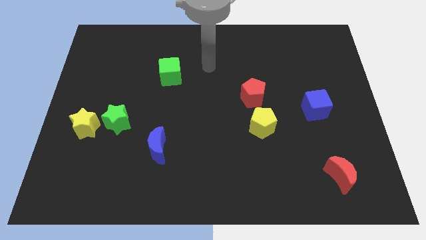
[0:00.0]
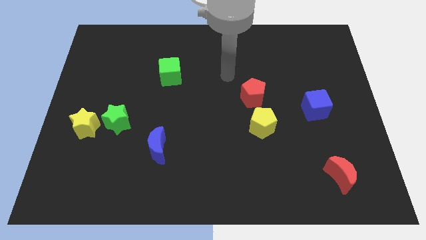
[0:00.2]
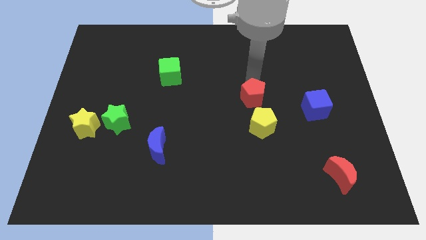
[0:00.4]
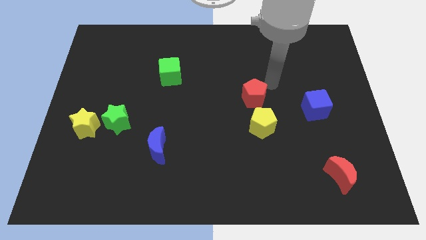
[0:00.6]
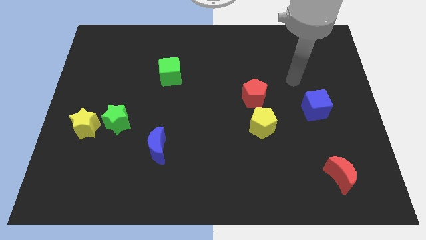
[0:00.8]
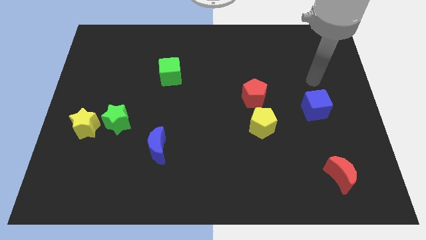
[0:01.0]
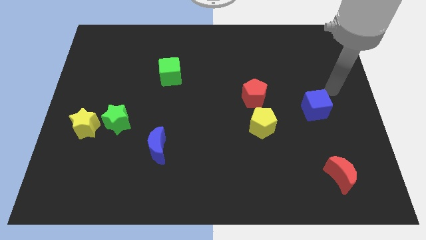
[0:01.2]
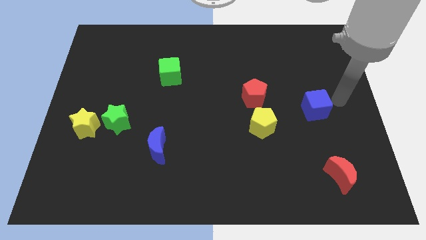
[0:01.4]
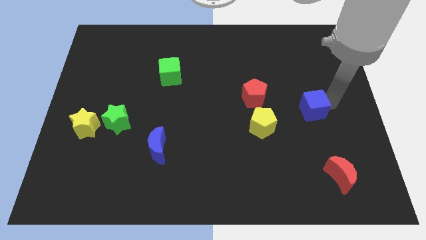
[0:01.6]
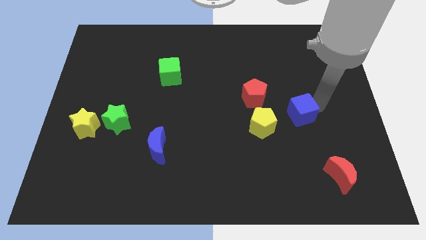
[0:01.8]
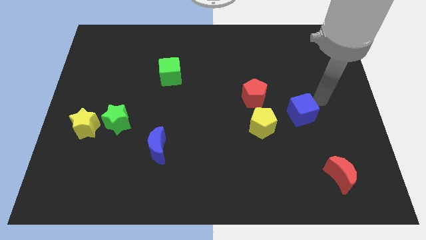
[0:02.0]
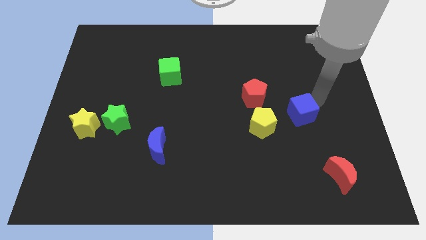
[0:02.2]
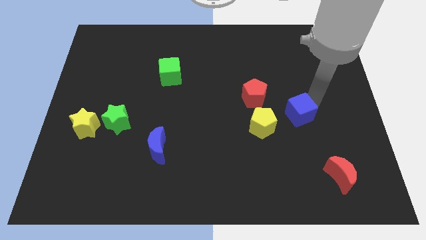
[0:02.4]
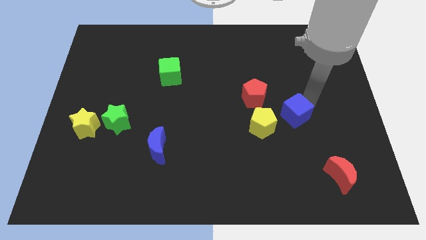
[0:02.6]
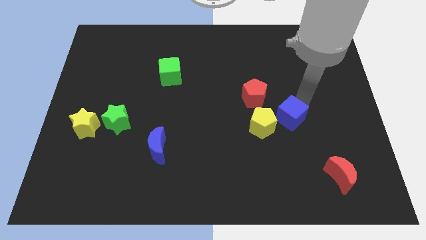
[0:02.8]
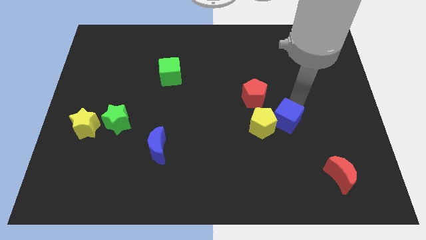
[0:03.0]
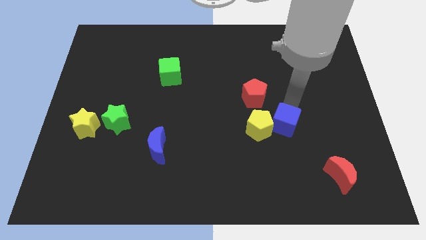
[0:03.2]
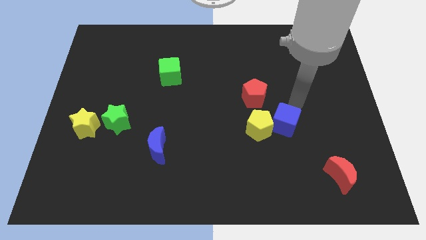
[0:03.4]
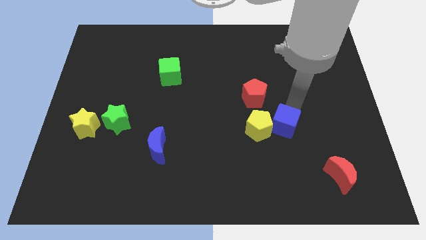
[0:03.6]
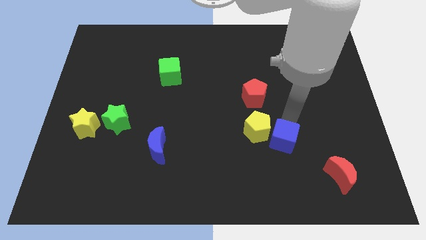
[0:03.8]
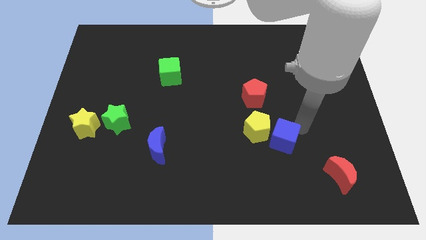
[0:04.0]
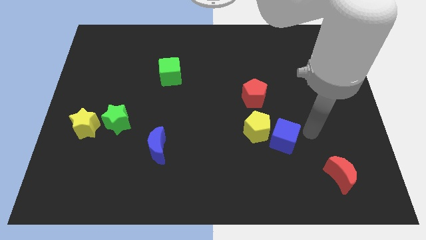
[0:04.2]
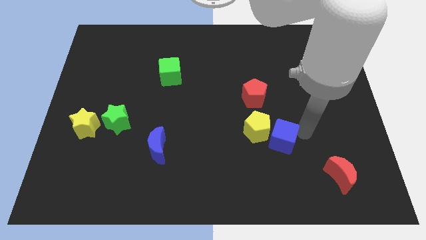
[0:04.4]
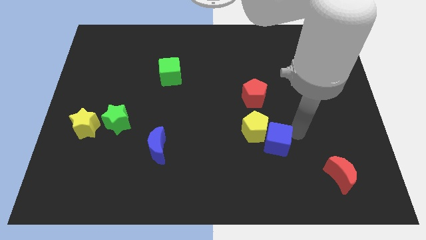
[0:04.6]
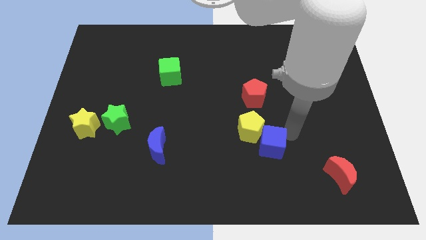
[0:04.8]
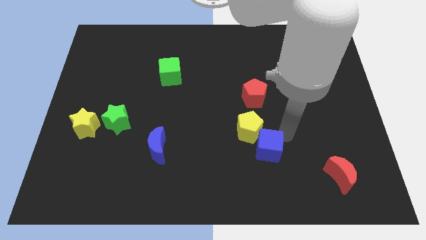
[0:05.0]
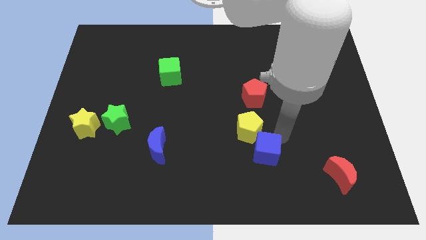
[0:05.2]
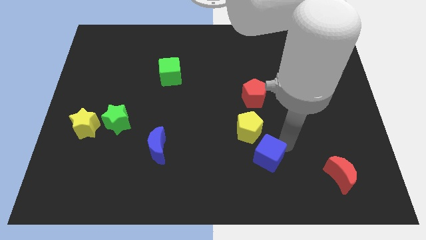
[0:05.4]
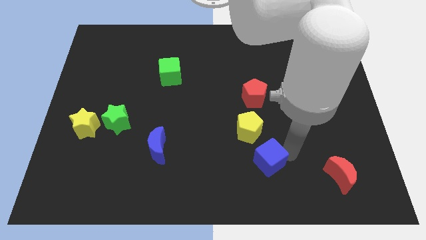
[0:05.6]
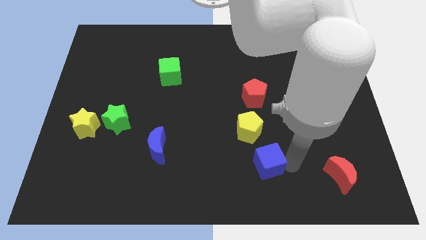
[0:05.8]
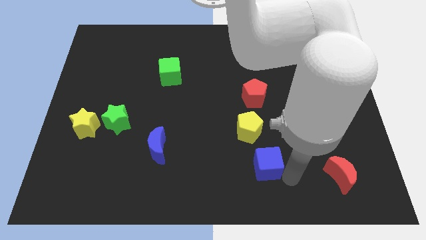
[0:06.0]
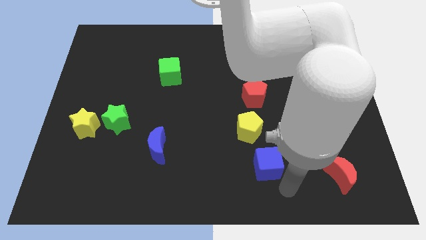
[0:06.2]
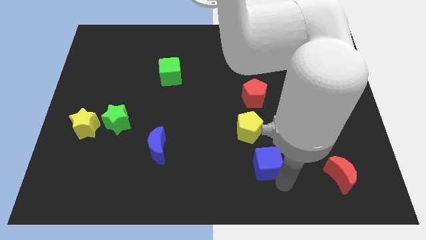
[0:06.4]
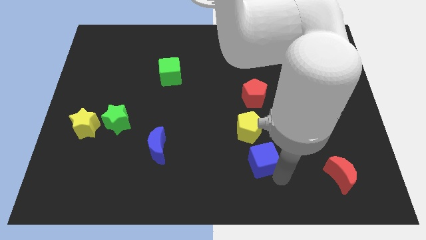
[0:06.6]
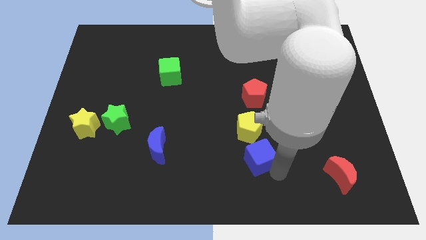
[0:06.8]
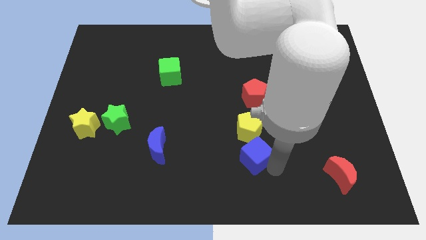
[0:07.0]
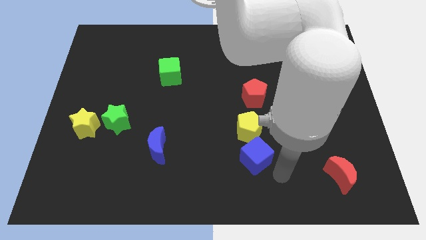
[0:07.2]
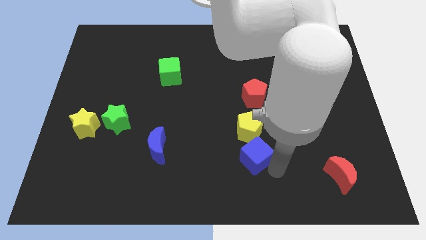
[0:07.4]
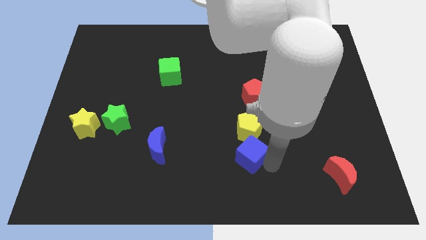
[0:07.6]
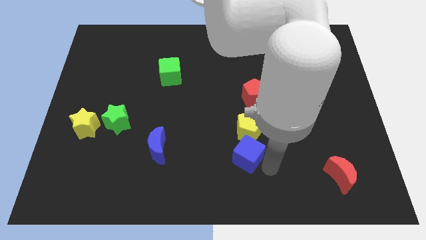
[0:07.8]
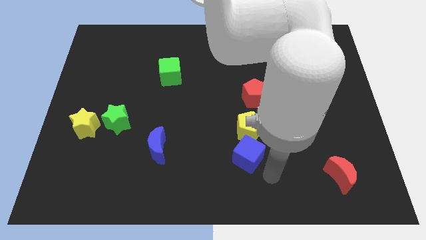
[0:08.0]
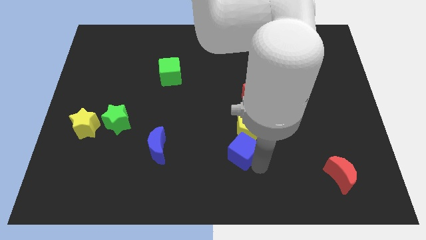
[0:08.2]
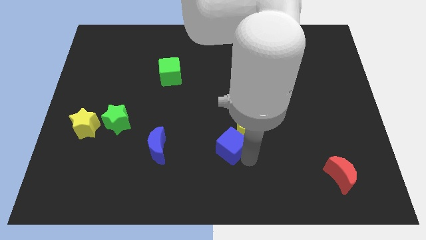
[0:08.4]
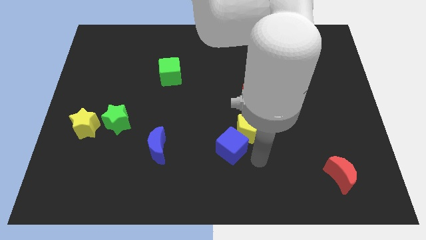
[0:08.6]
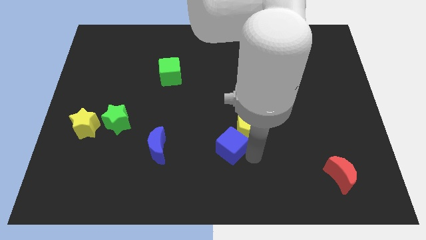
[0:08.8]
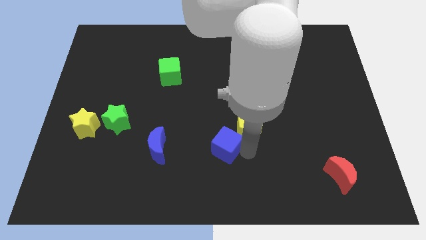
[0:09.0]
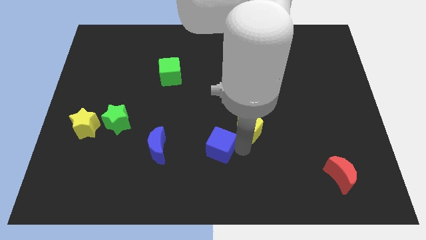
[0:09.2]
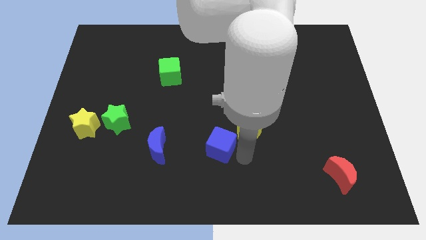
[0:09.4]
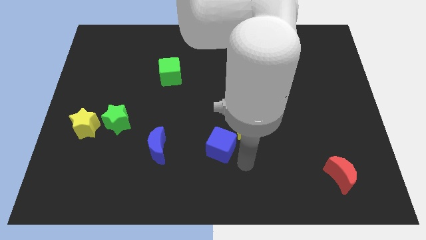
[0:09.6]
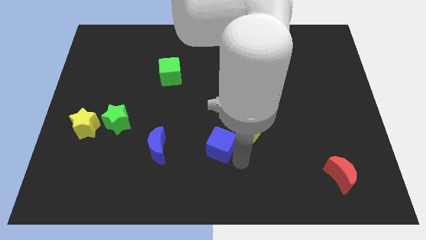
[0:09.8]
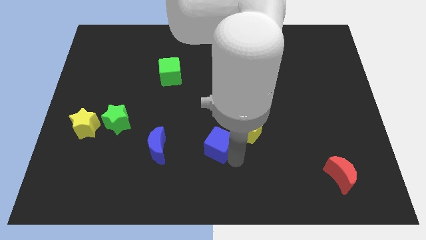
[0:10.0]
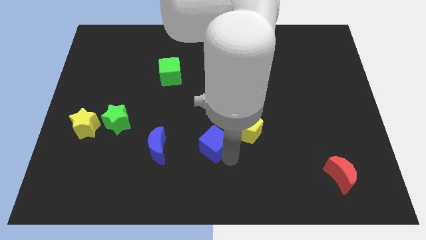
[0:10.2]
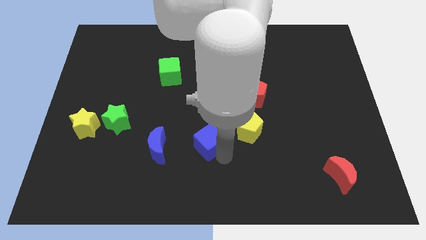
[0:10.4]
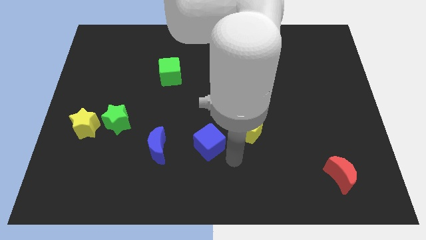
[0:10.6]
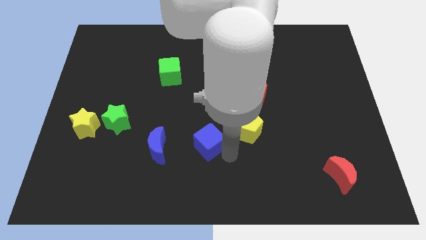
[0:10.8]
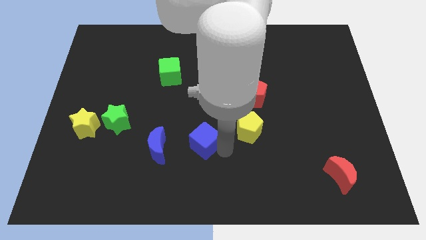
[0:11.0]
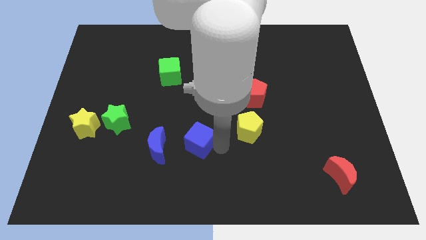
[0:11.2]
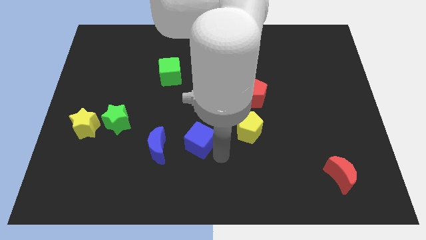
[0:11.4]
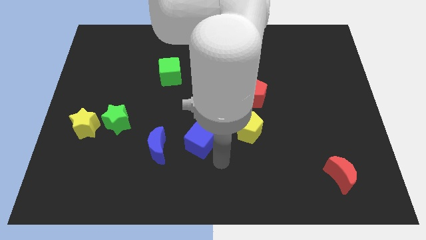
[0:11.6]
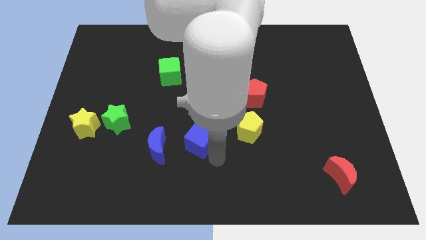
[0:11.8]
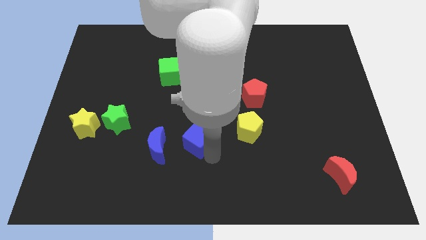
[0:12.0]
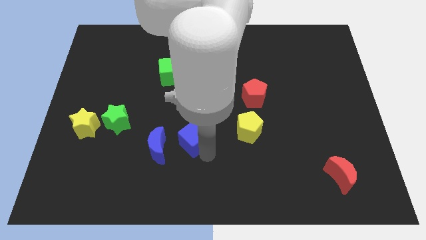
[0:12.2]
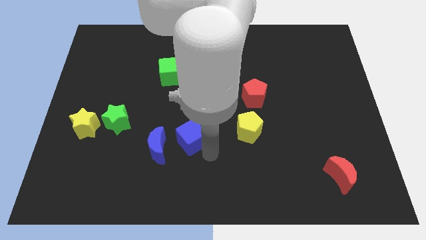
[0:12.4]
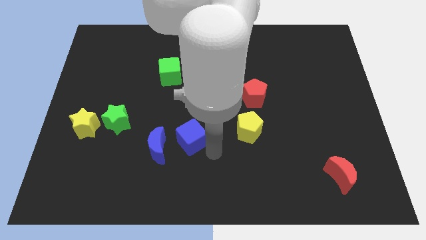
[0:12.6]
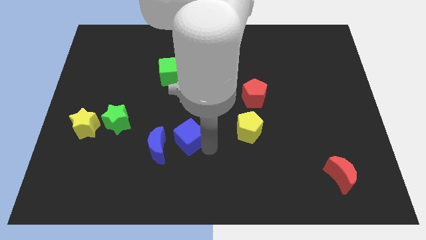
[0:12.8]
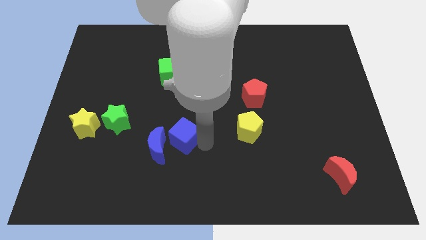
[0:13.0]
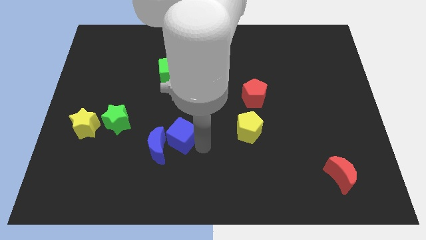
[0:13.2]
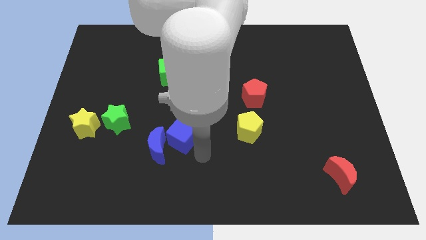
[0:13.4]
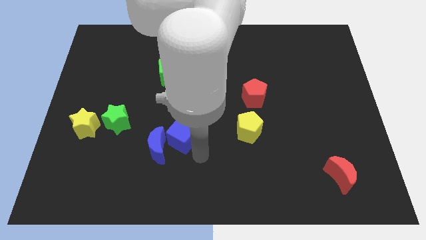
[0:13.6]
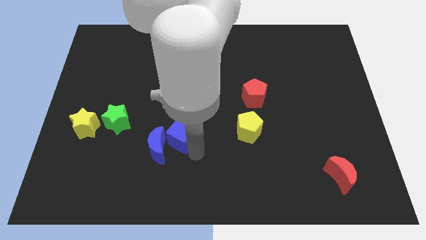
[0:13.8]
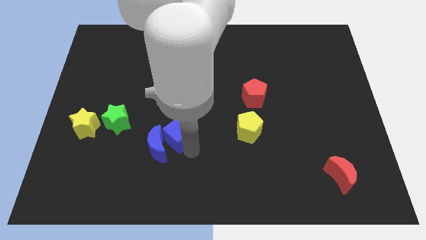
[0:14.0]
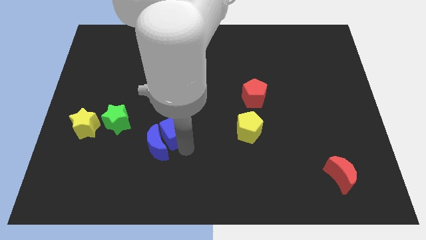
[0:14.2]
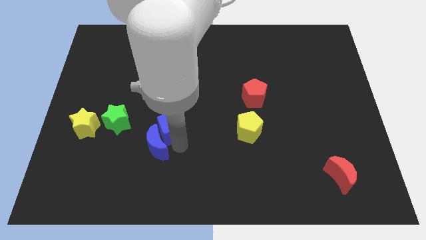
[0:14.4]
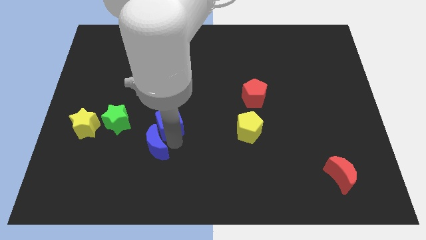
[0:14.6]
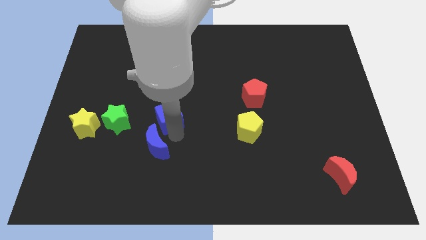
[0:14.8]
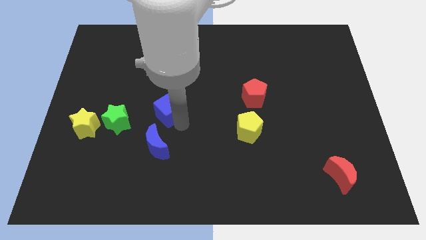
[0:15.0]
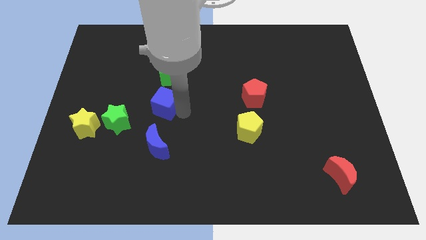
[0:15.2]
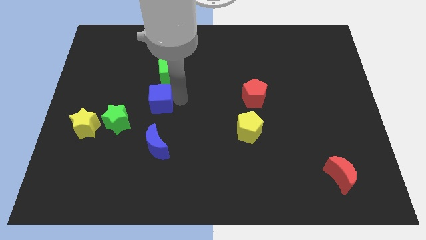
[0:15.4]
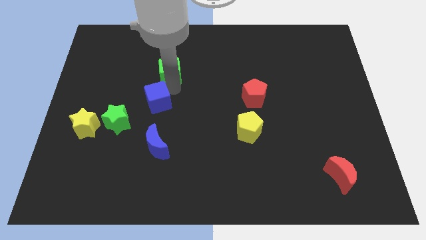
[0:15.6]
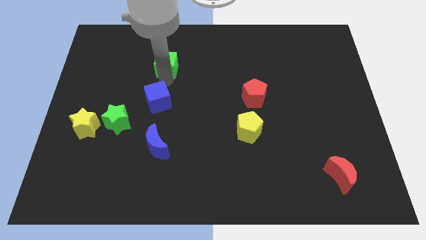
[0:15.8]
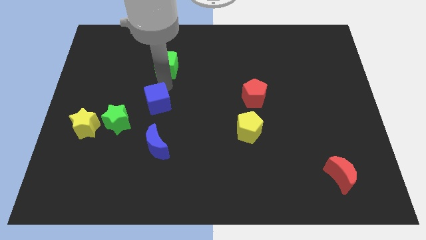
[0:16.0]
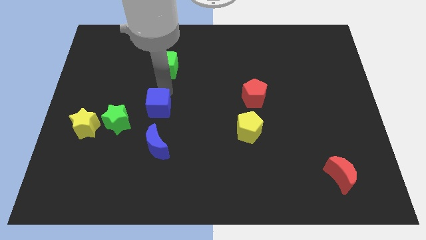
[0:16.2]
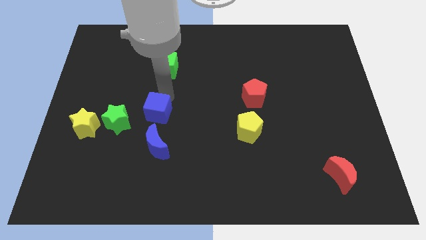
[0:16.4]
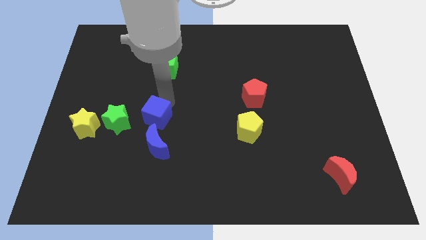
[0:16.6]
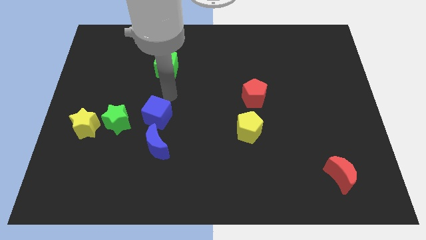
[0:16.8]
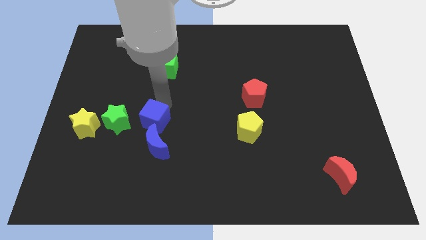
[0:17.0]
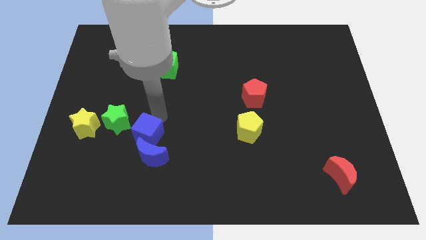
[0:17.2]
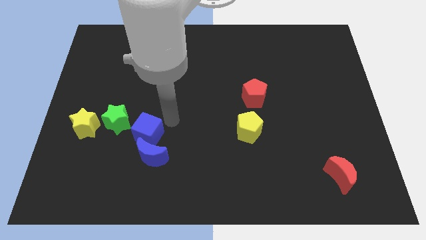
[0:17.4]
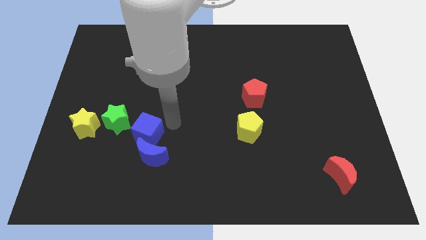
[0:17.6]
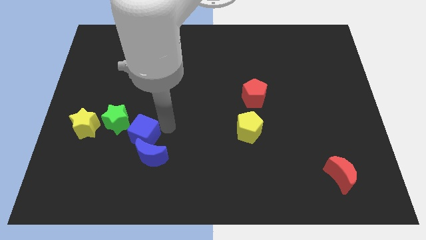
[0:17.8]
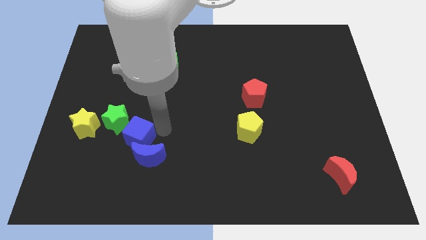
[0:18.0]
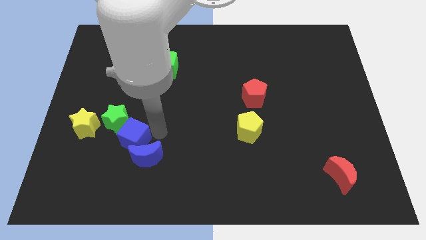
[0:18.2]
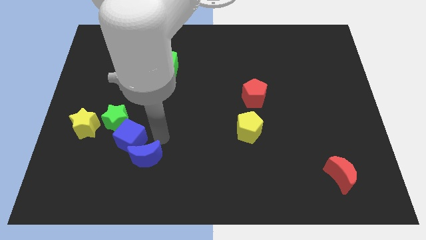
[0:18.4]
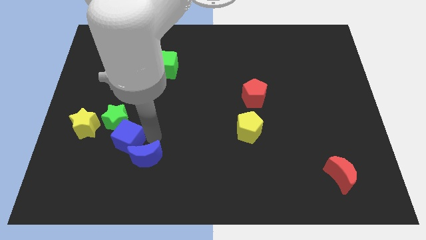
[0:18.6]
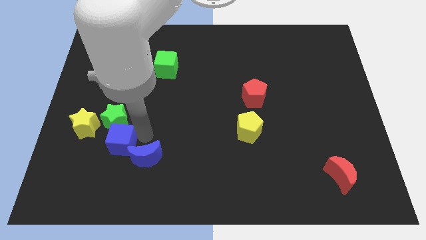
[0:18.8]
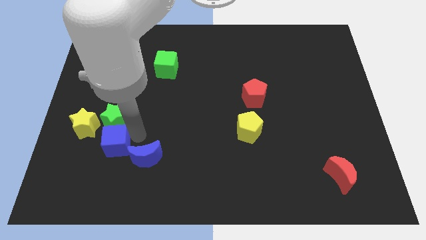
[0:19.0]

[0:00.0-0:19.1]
slide the blue cube to the bottom left side of the green star
